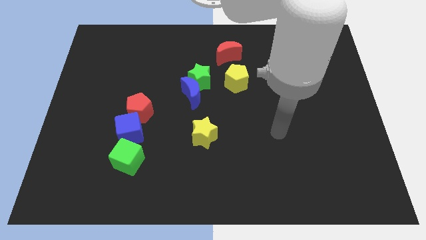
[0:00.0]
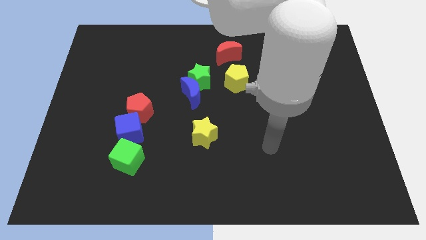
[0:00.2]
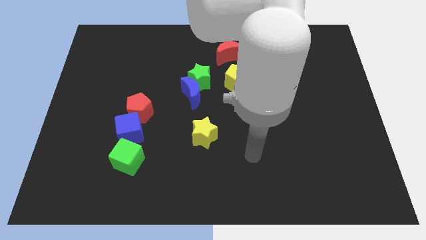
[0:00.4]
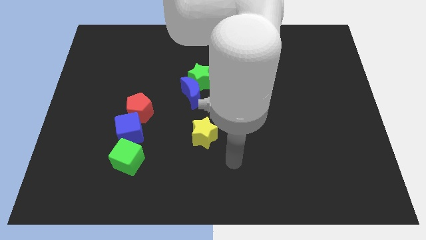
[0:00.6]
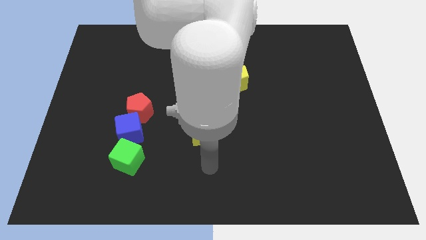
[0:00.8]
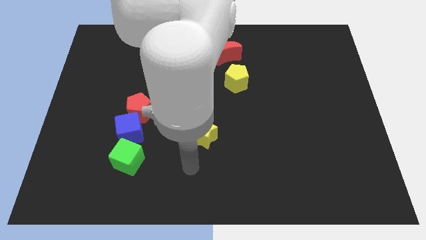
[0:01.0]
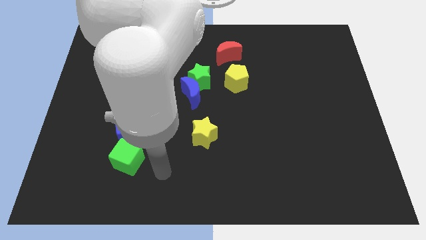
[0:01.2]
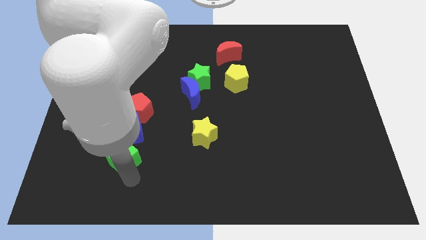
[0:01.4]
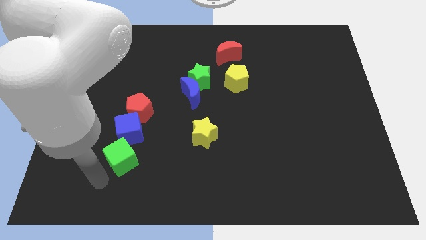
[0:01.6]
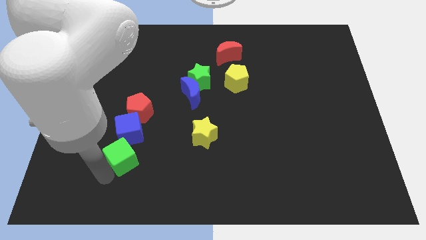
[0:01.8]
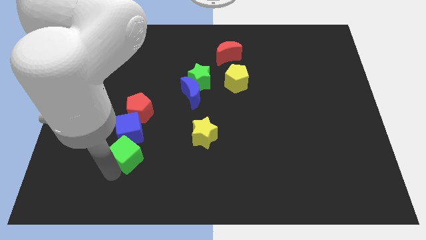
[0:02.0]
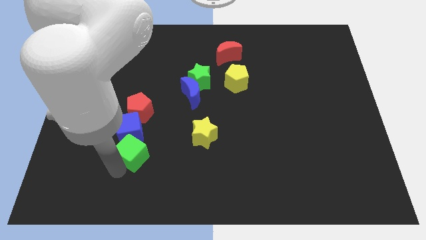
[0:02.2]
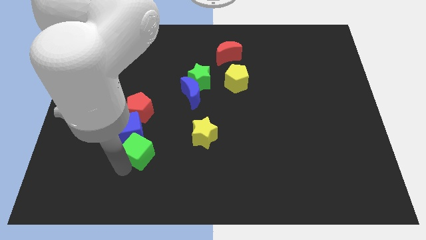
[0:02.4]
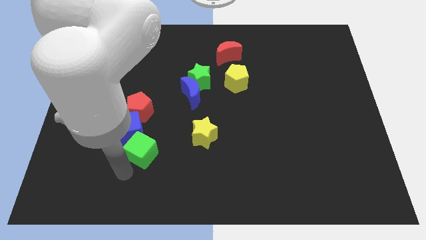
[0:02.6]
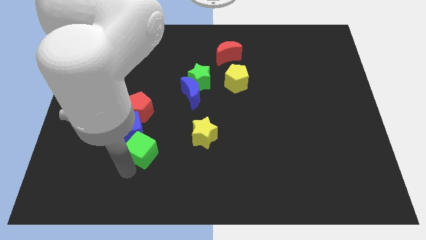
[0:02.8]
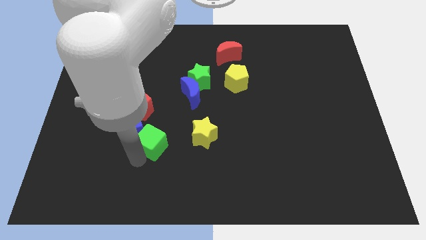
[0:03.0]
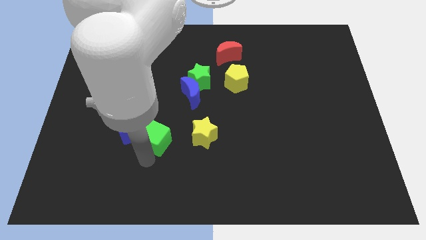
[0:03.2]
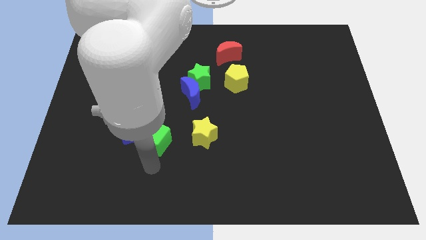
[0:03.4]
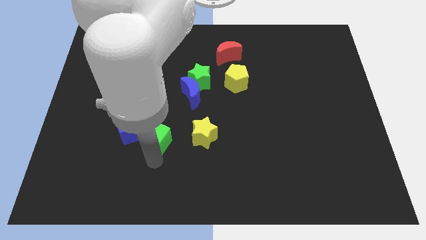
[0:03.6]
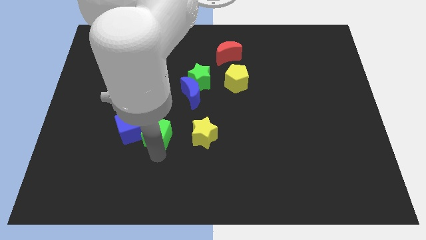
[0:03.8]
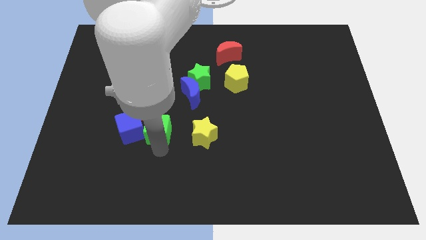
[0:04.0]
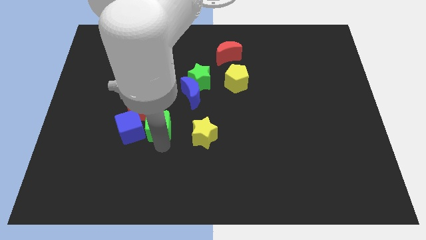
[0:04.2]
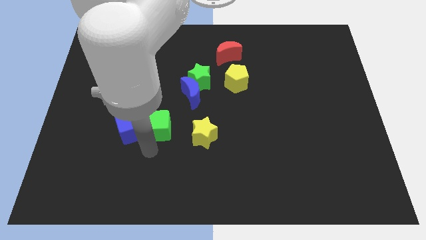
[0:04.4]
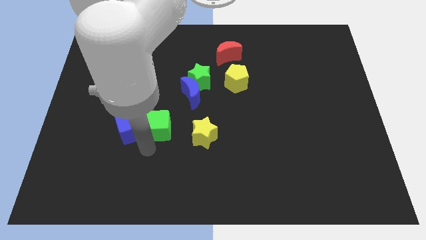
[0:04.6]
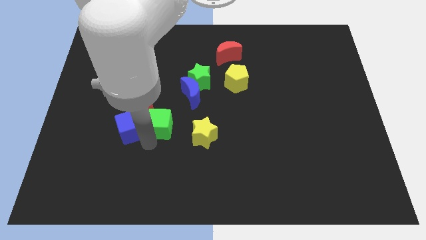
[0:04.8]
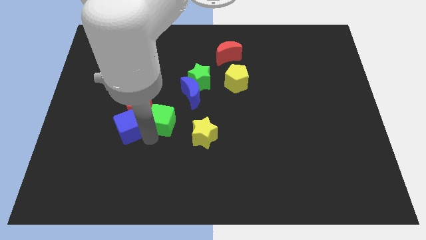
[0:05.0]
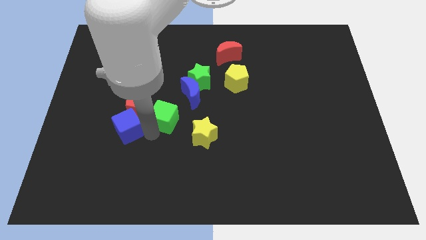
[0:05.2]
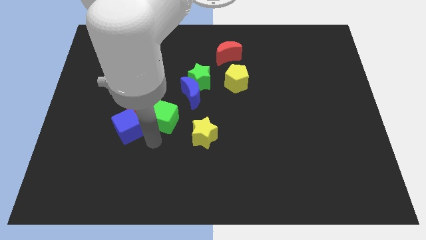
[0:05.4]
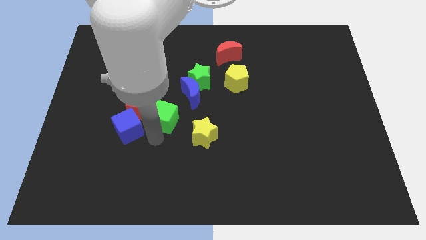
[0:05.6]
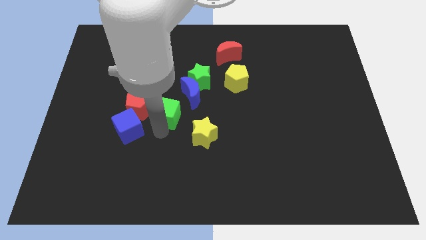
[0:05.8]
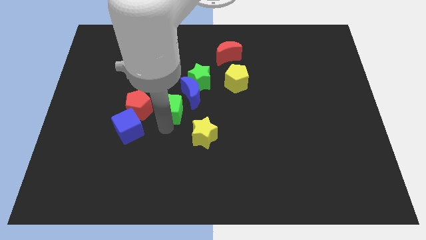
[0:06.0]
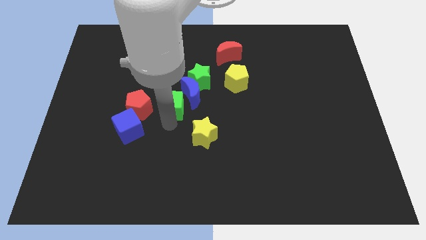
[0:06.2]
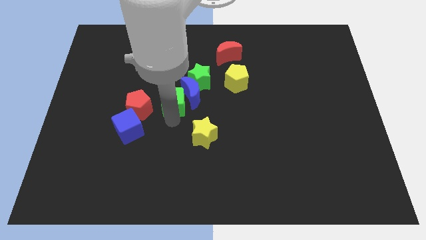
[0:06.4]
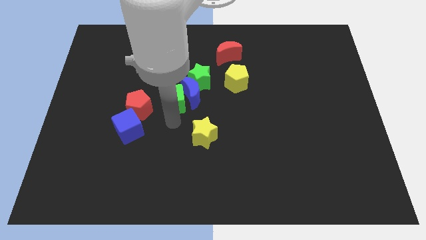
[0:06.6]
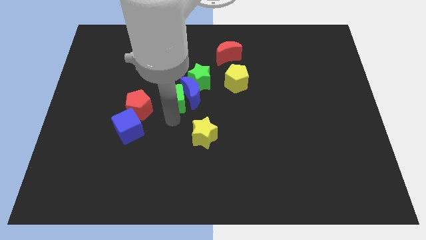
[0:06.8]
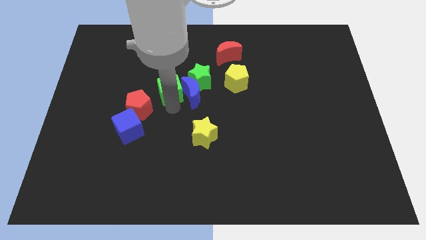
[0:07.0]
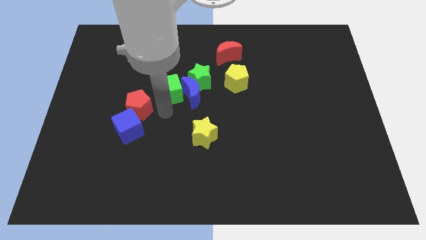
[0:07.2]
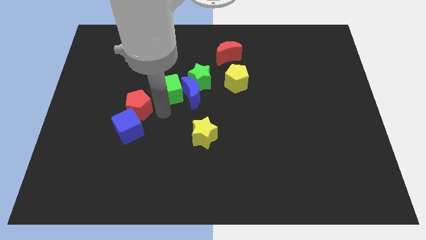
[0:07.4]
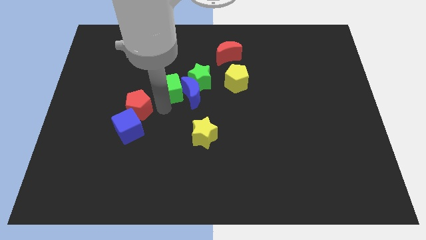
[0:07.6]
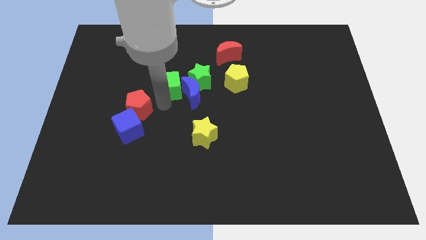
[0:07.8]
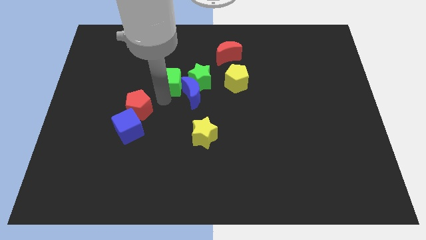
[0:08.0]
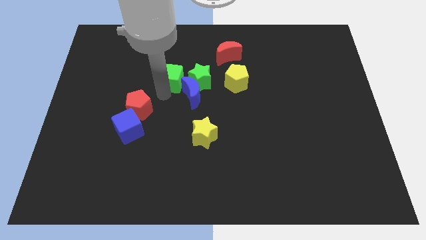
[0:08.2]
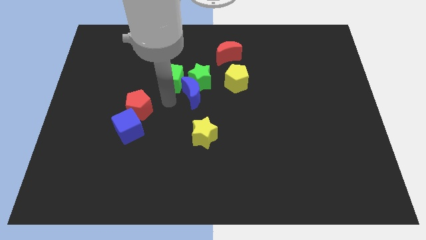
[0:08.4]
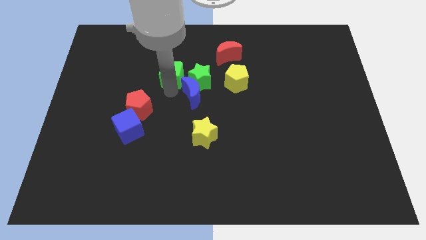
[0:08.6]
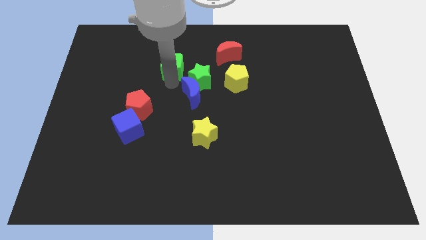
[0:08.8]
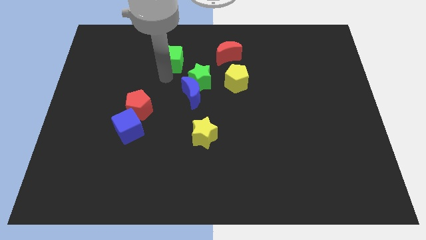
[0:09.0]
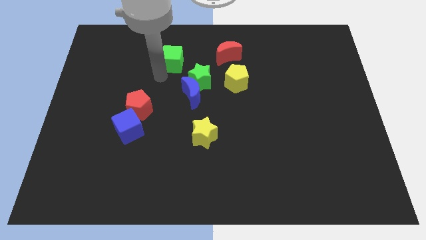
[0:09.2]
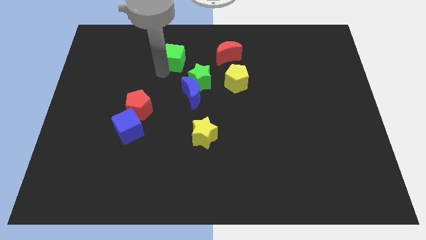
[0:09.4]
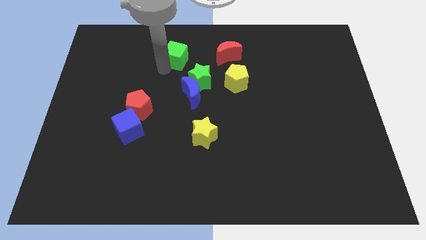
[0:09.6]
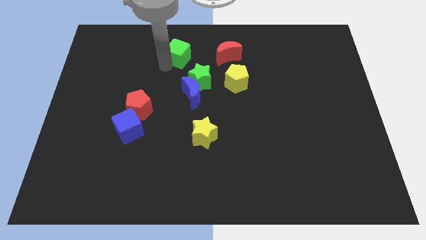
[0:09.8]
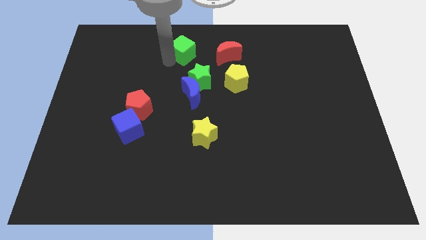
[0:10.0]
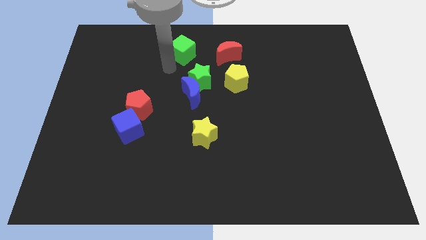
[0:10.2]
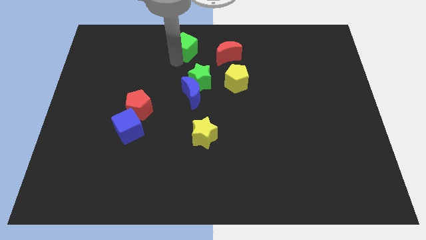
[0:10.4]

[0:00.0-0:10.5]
push the green cube to the top side
